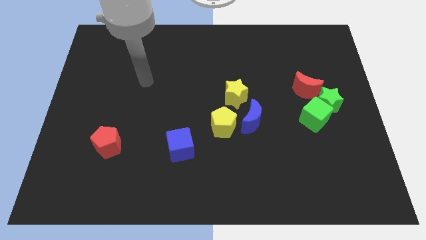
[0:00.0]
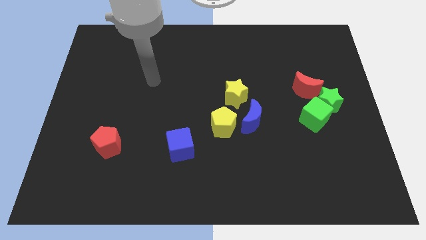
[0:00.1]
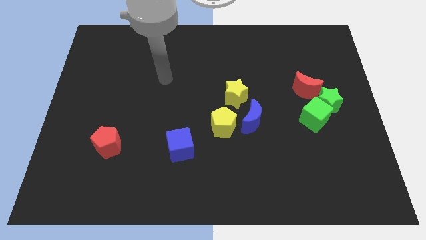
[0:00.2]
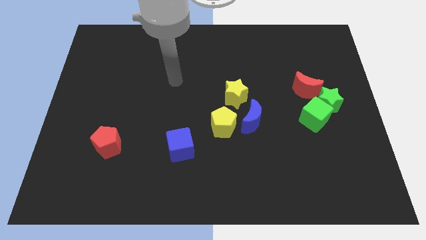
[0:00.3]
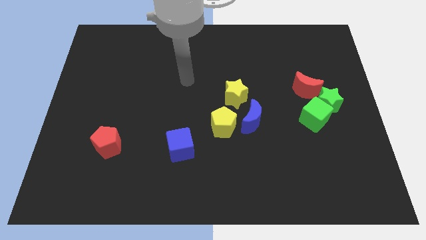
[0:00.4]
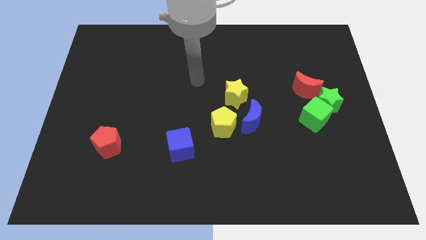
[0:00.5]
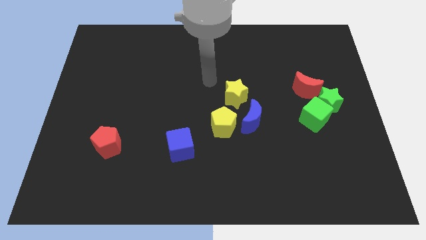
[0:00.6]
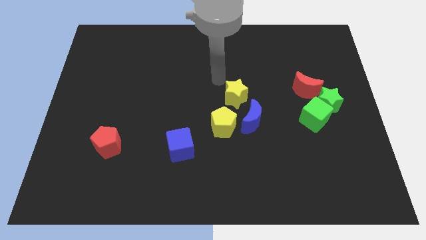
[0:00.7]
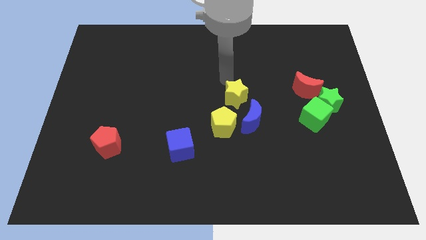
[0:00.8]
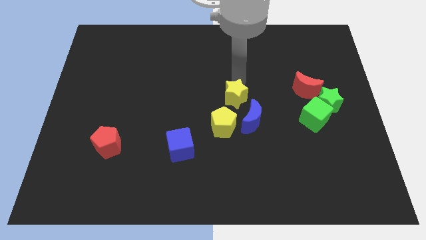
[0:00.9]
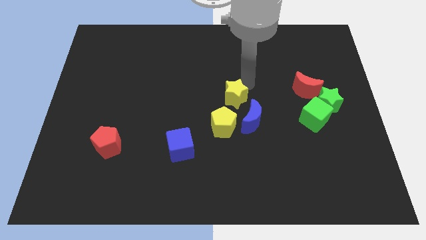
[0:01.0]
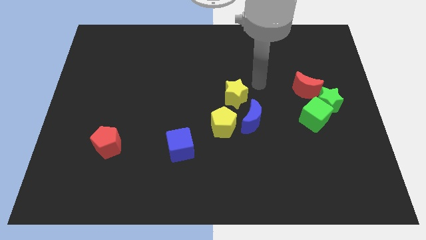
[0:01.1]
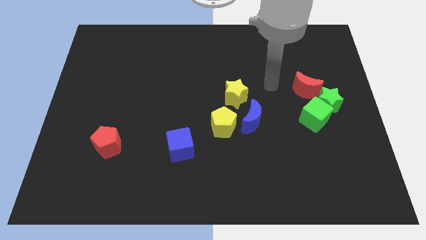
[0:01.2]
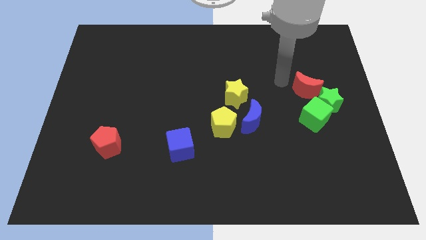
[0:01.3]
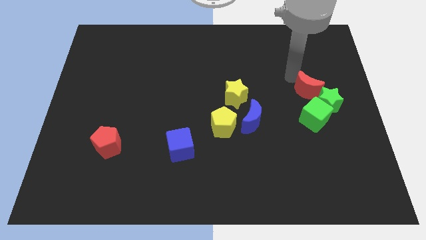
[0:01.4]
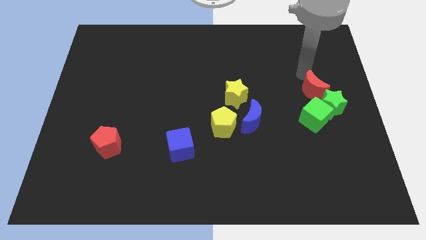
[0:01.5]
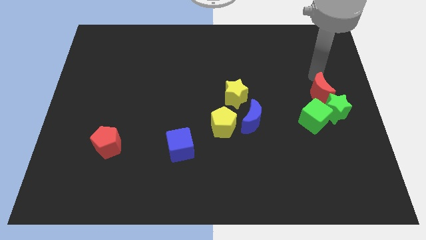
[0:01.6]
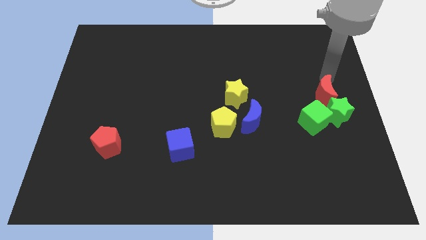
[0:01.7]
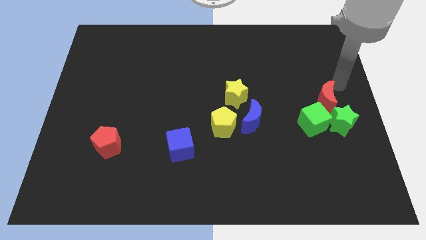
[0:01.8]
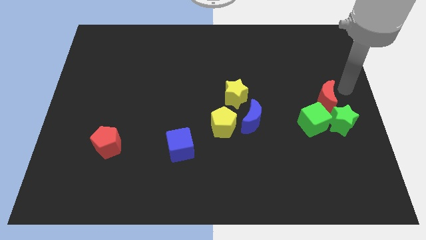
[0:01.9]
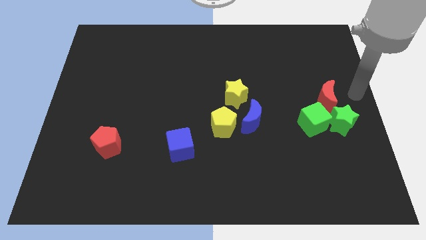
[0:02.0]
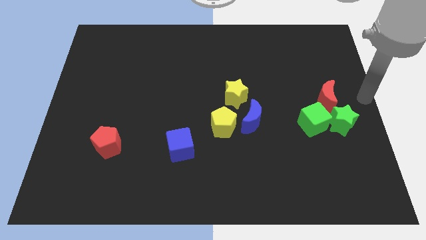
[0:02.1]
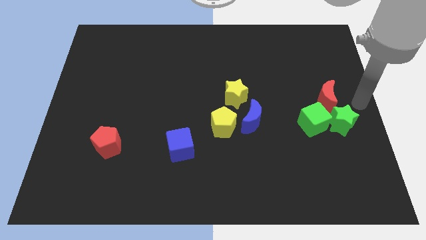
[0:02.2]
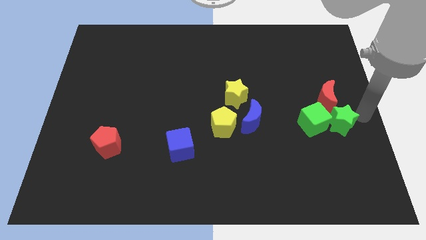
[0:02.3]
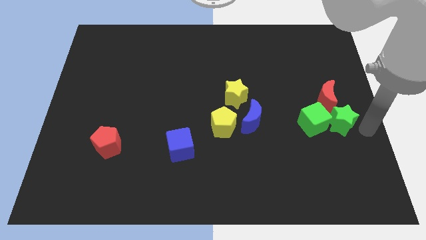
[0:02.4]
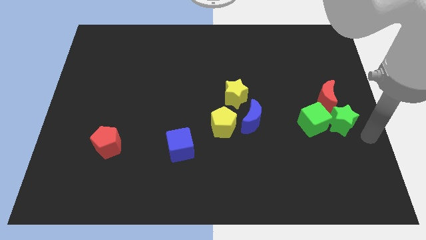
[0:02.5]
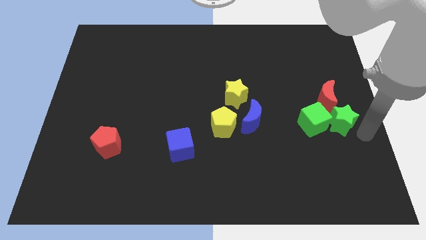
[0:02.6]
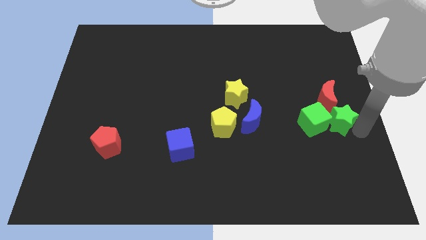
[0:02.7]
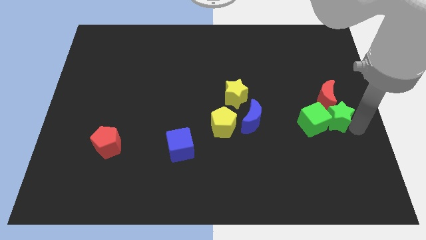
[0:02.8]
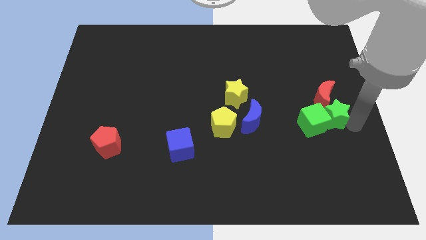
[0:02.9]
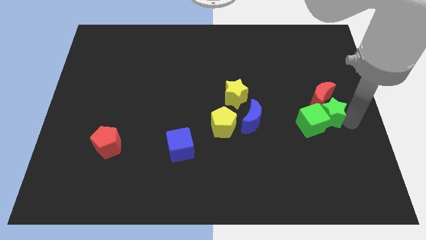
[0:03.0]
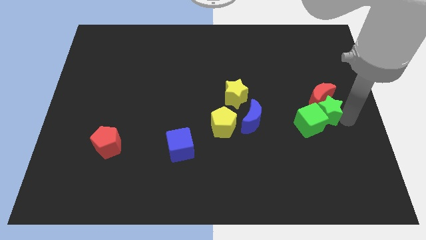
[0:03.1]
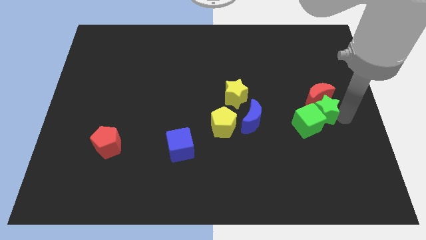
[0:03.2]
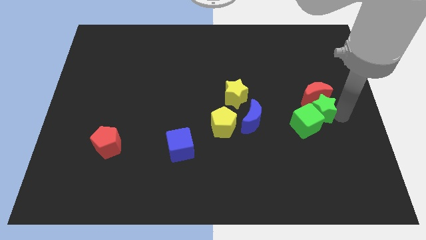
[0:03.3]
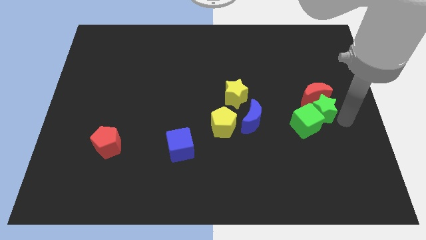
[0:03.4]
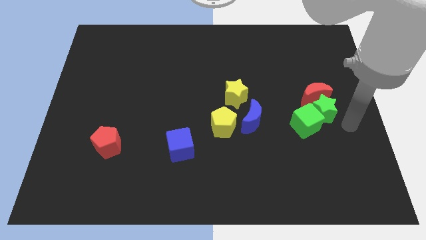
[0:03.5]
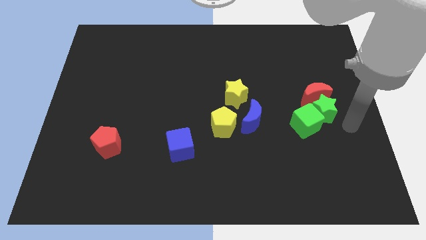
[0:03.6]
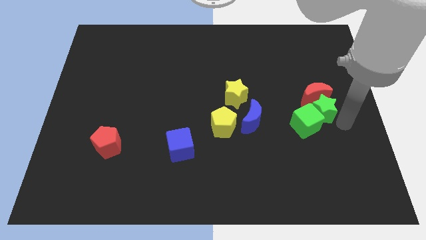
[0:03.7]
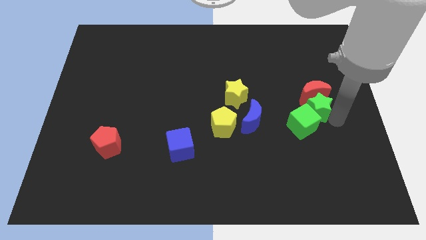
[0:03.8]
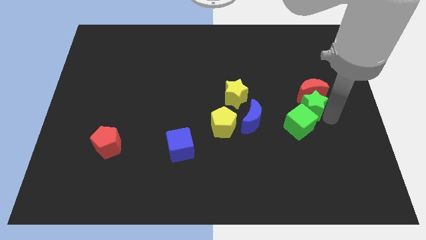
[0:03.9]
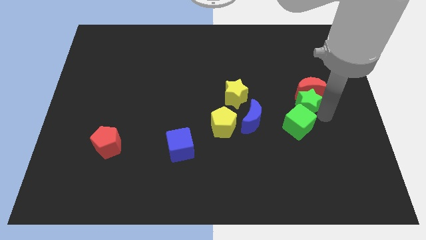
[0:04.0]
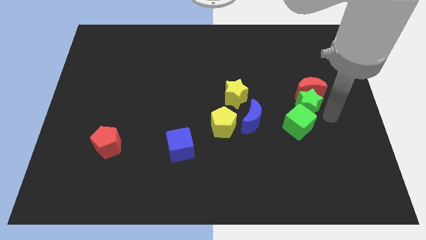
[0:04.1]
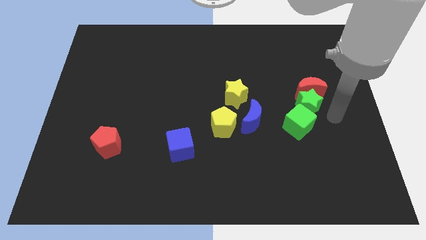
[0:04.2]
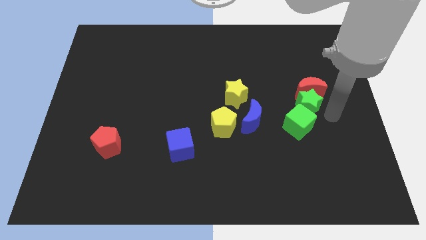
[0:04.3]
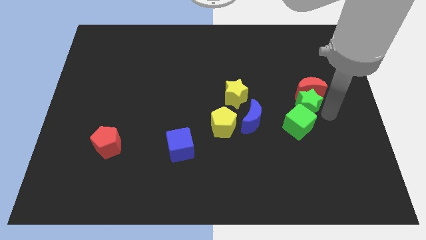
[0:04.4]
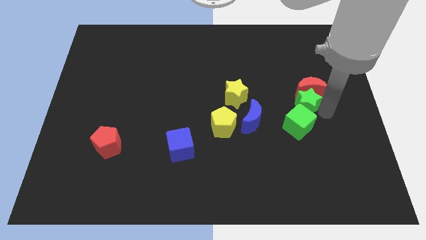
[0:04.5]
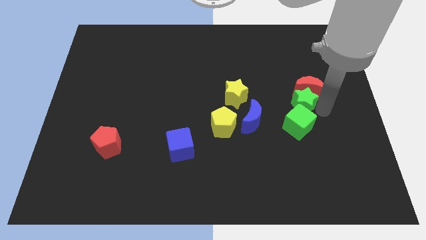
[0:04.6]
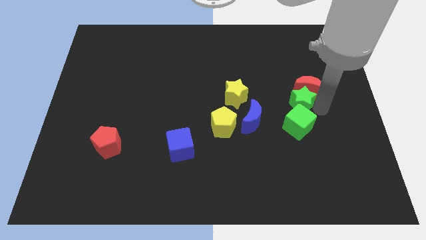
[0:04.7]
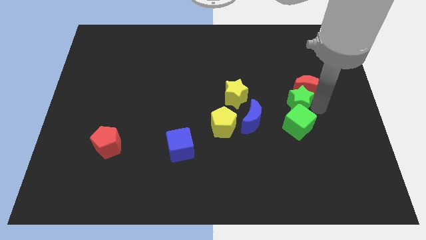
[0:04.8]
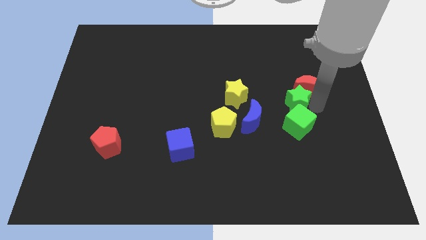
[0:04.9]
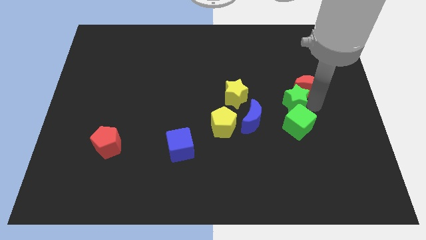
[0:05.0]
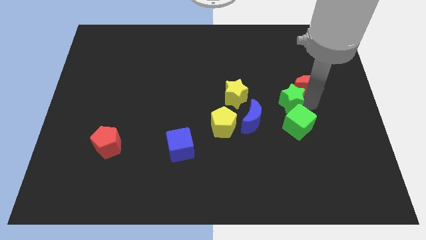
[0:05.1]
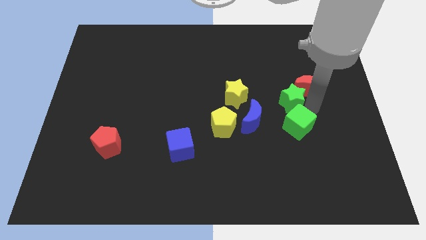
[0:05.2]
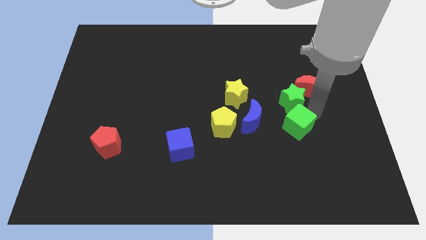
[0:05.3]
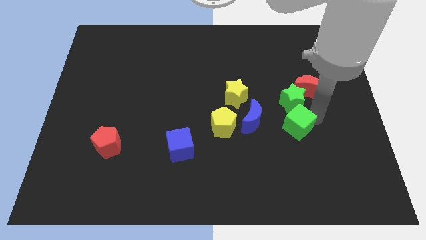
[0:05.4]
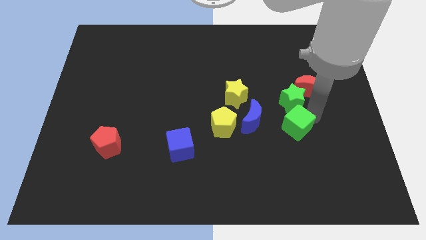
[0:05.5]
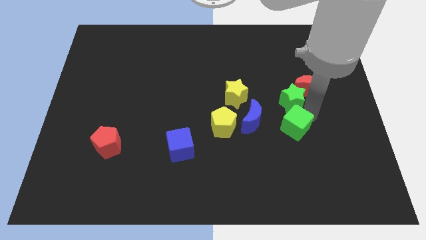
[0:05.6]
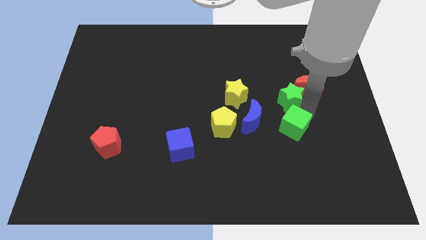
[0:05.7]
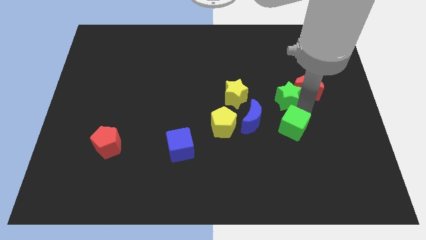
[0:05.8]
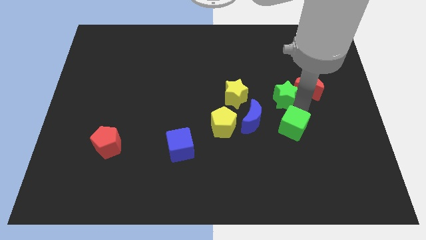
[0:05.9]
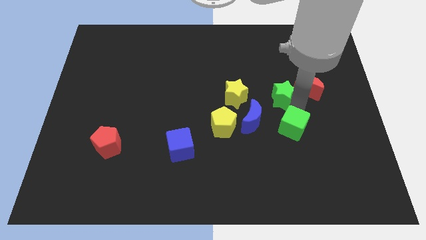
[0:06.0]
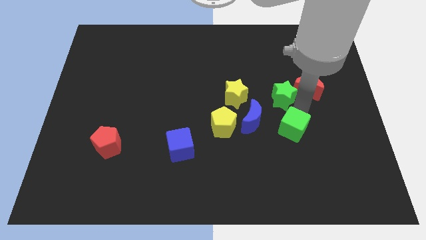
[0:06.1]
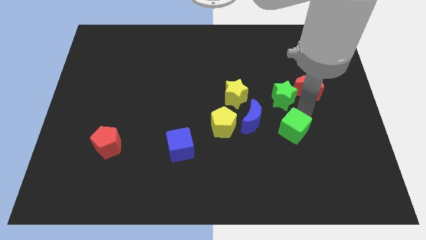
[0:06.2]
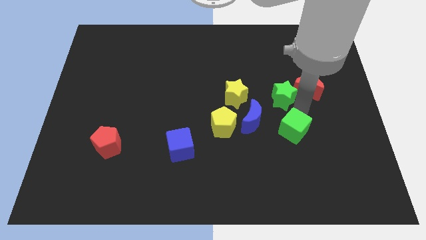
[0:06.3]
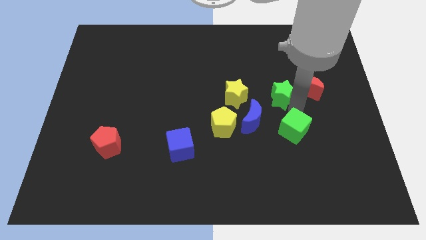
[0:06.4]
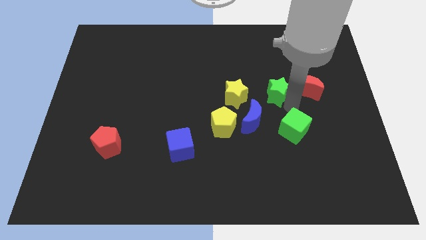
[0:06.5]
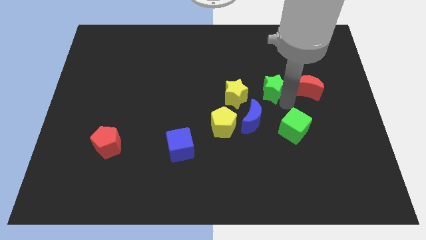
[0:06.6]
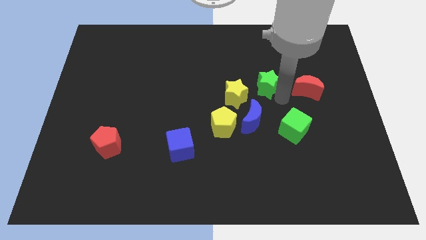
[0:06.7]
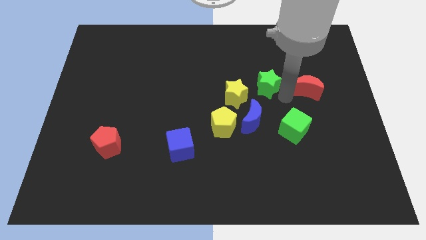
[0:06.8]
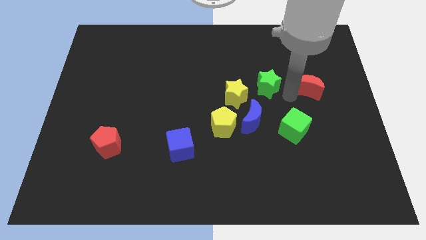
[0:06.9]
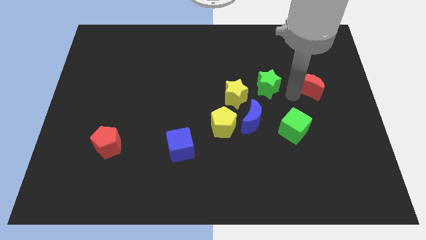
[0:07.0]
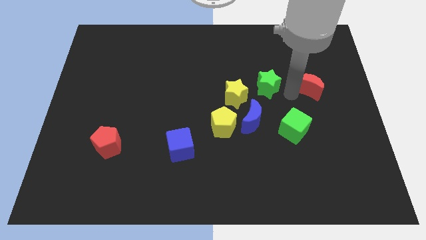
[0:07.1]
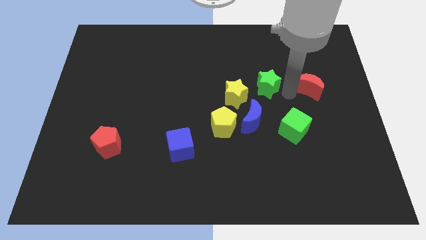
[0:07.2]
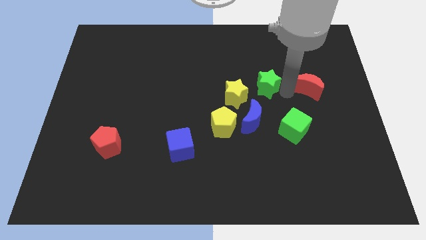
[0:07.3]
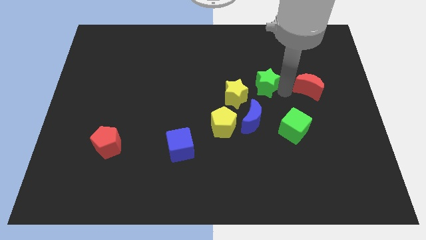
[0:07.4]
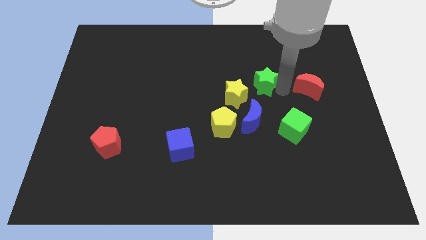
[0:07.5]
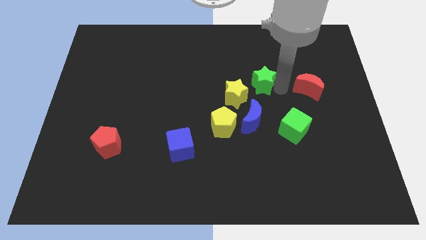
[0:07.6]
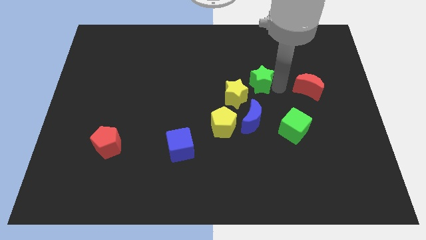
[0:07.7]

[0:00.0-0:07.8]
slide the green star to the middle
